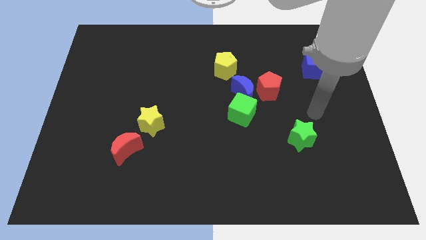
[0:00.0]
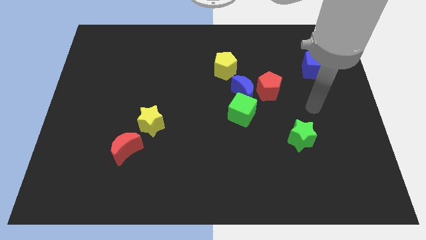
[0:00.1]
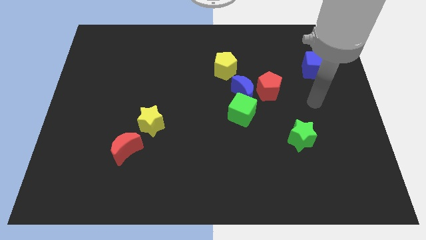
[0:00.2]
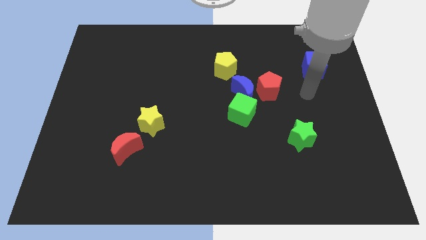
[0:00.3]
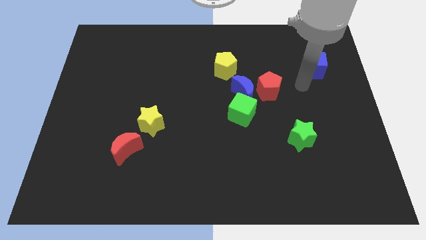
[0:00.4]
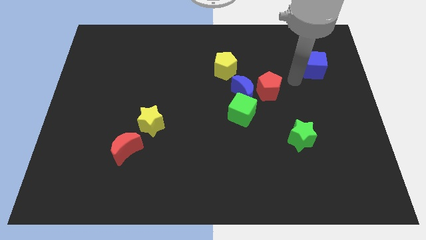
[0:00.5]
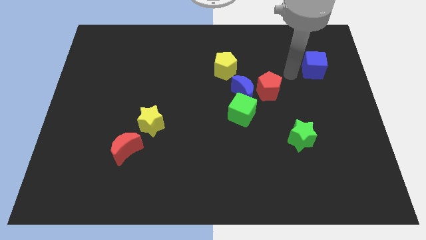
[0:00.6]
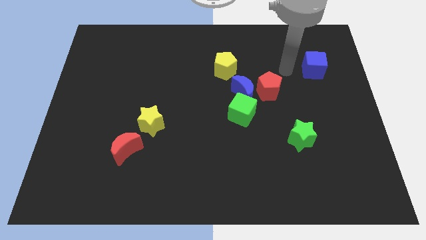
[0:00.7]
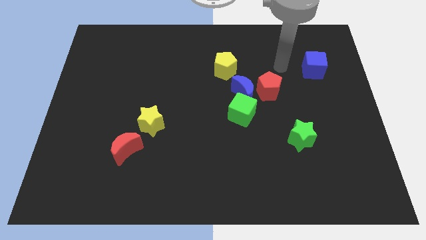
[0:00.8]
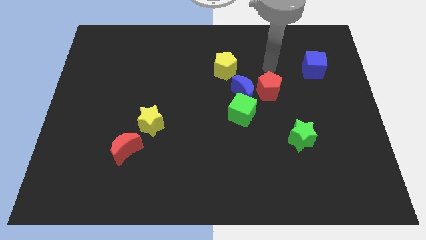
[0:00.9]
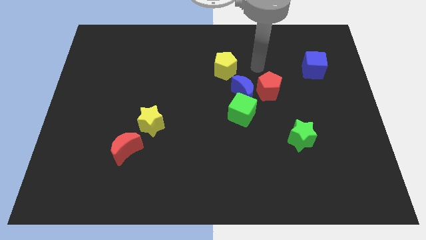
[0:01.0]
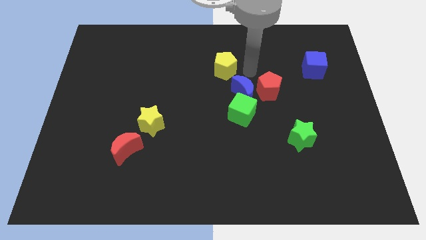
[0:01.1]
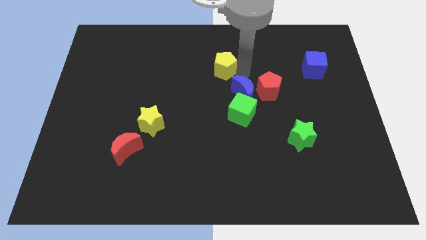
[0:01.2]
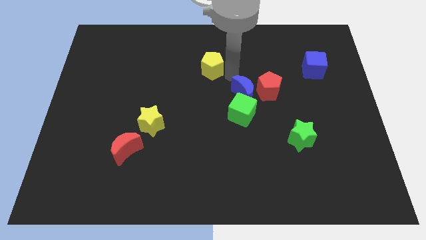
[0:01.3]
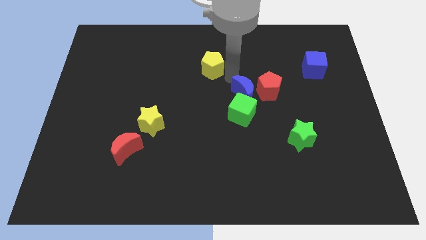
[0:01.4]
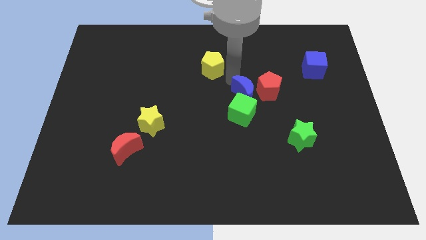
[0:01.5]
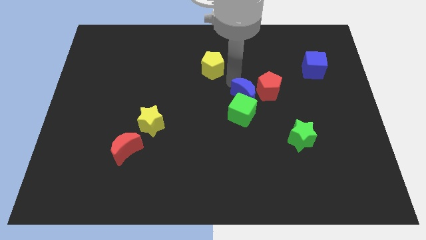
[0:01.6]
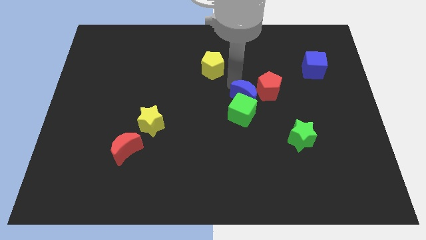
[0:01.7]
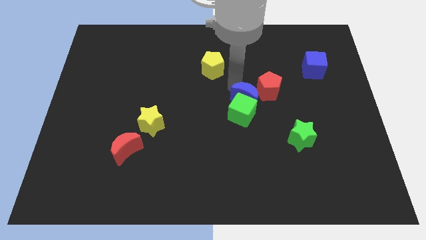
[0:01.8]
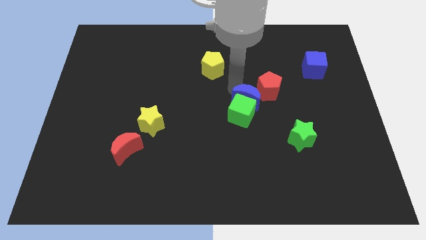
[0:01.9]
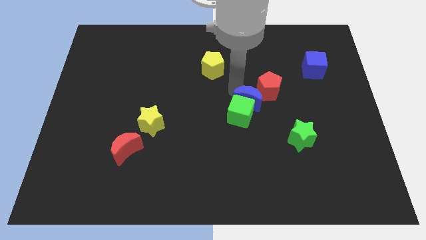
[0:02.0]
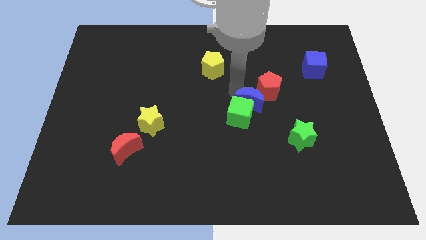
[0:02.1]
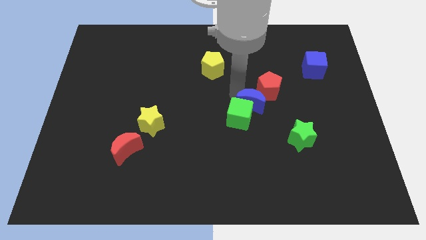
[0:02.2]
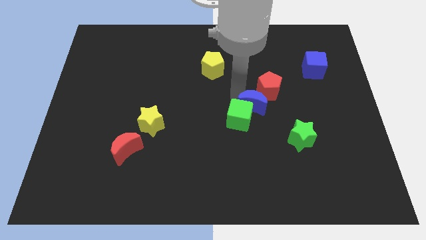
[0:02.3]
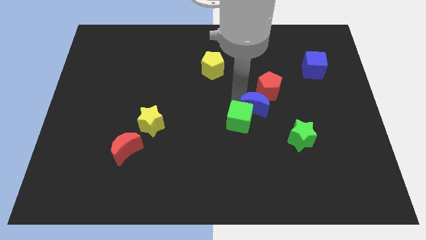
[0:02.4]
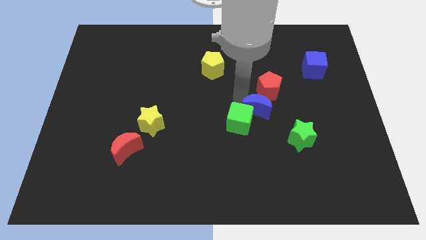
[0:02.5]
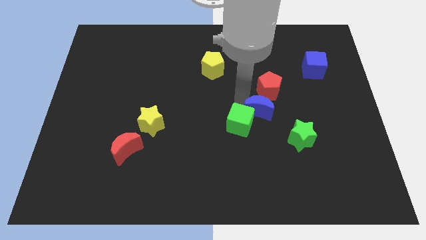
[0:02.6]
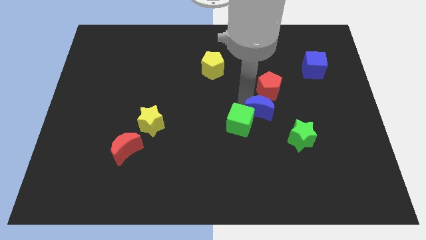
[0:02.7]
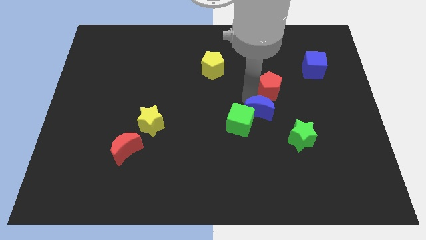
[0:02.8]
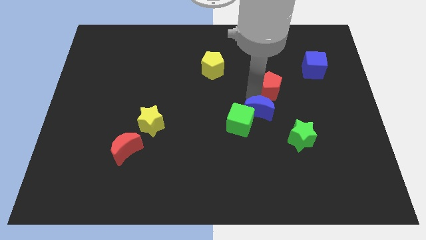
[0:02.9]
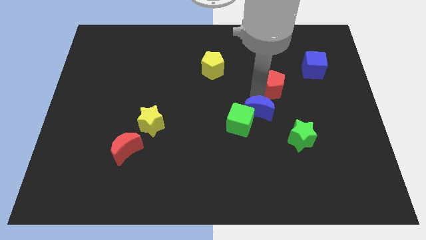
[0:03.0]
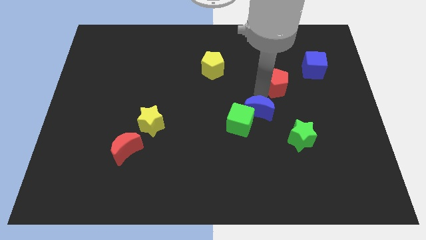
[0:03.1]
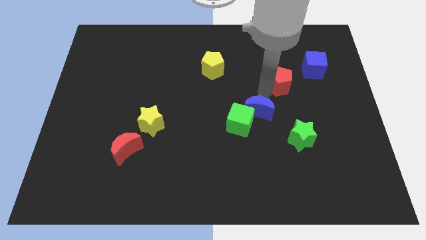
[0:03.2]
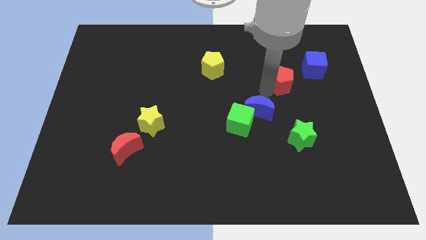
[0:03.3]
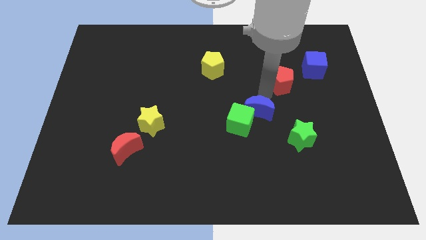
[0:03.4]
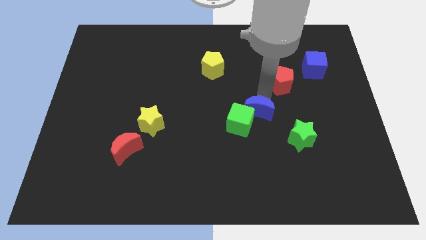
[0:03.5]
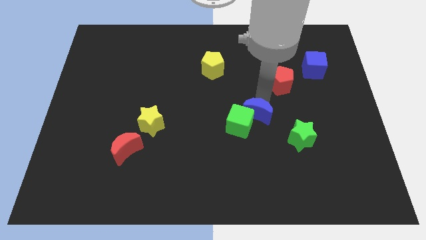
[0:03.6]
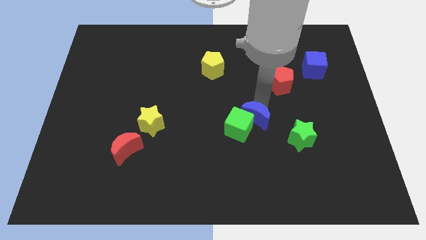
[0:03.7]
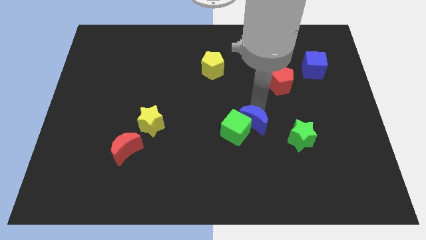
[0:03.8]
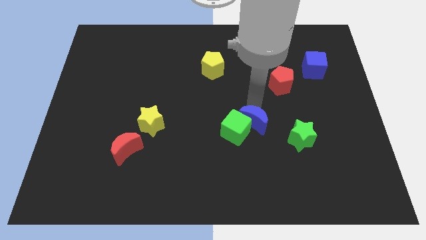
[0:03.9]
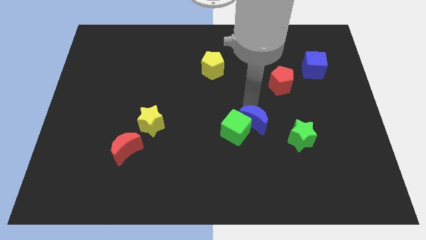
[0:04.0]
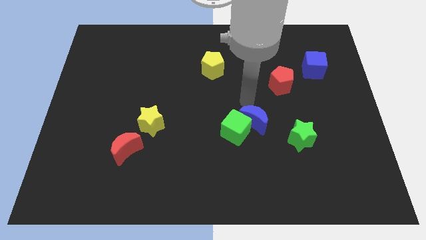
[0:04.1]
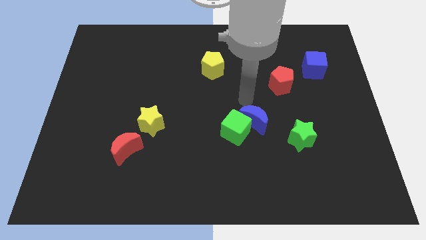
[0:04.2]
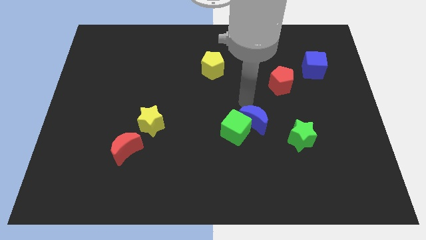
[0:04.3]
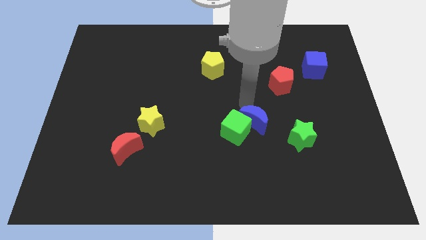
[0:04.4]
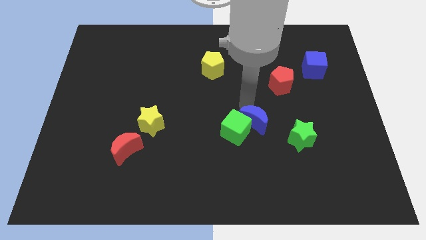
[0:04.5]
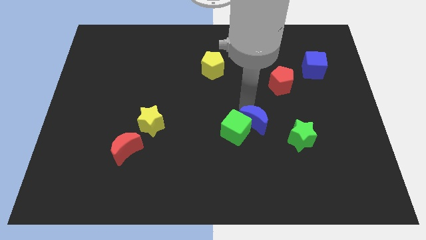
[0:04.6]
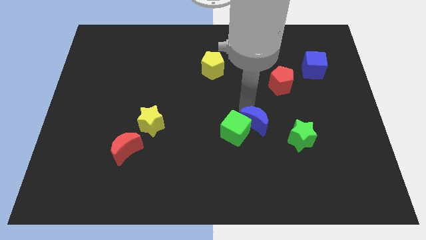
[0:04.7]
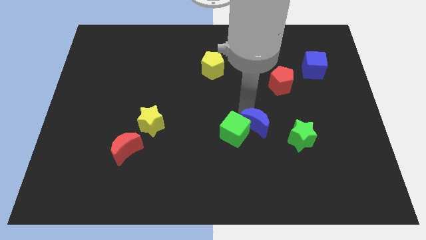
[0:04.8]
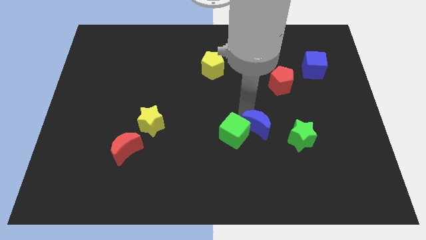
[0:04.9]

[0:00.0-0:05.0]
move the blue moon away from the red pentagon, green cube, and yellow pentagon

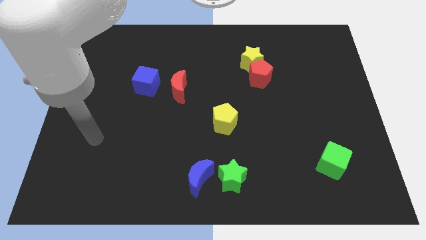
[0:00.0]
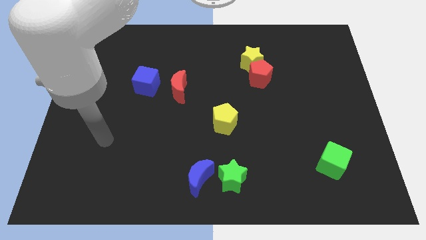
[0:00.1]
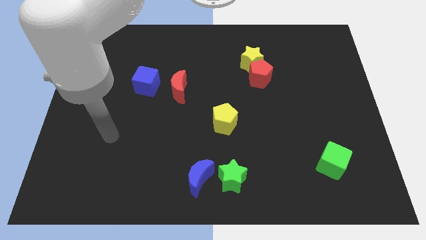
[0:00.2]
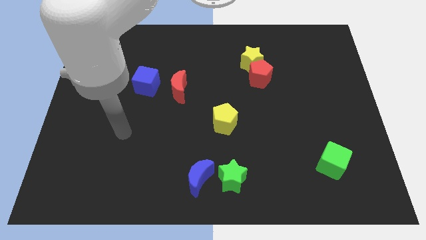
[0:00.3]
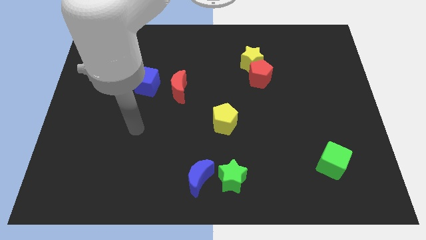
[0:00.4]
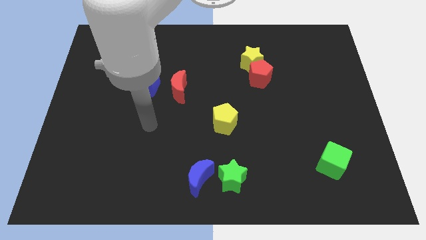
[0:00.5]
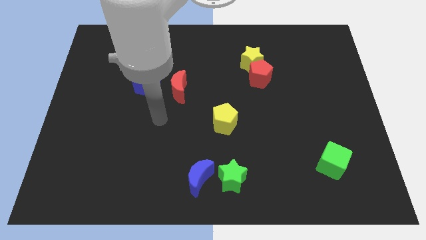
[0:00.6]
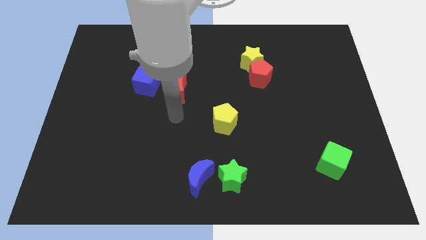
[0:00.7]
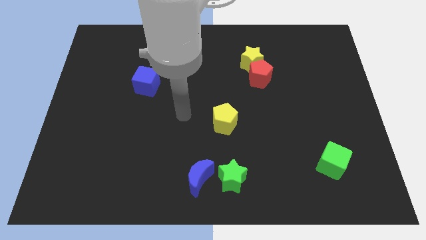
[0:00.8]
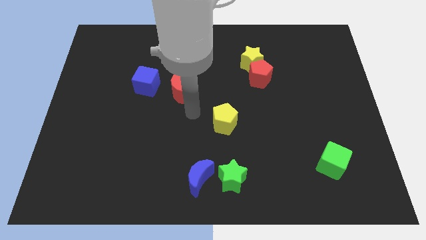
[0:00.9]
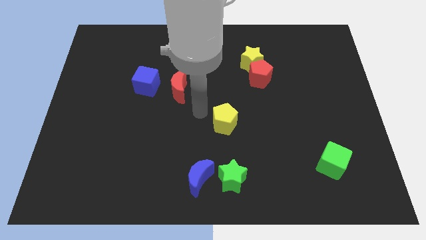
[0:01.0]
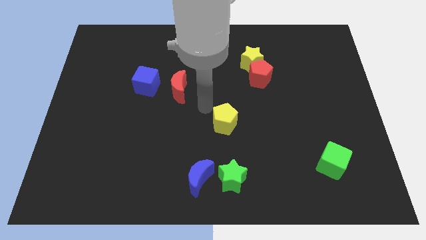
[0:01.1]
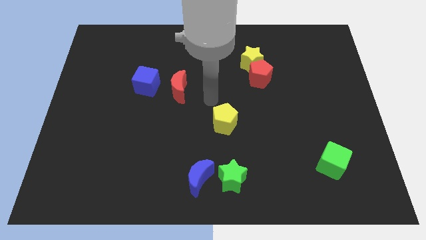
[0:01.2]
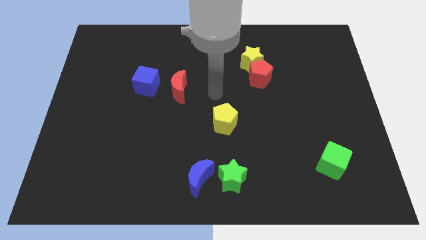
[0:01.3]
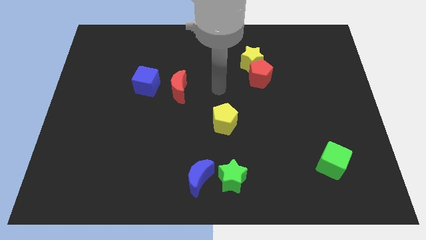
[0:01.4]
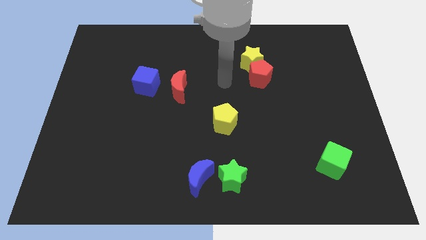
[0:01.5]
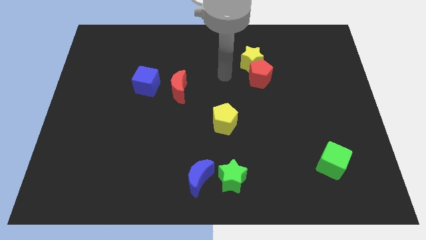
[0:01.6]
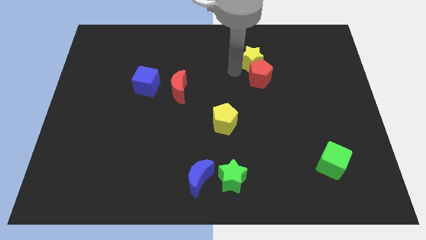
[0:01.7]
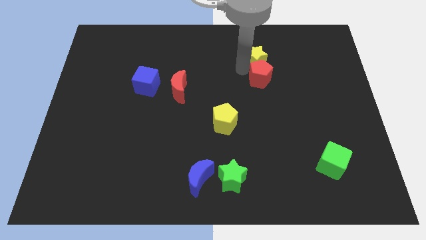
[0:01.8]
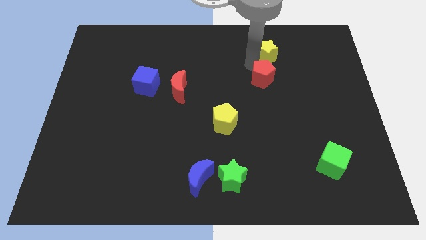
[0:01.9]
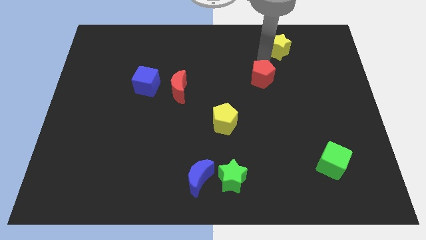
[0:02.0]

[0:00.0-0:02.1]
pull the red pentagon apart from the yellow star

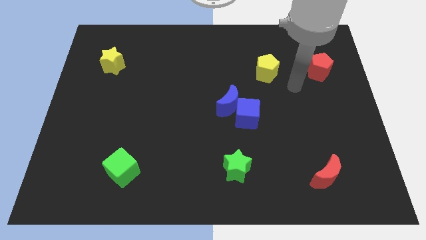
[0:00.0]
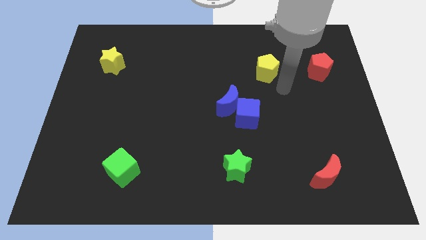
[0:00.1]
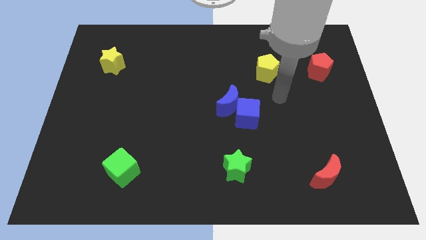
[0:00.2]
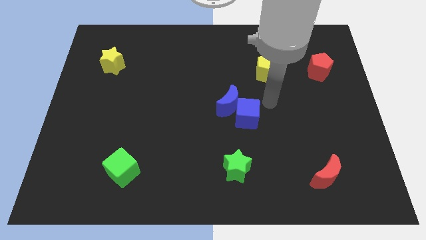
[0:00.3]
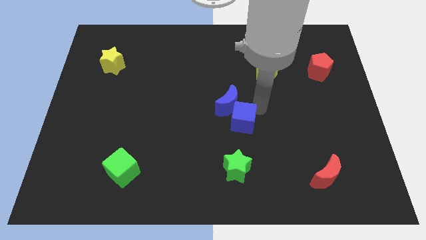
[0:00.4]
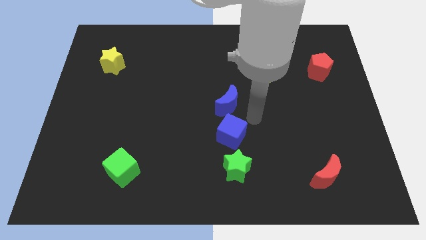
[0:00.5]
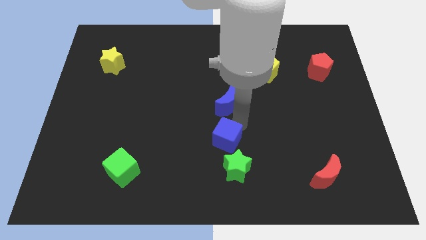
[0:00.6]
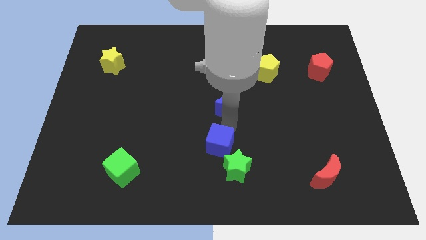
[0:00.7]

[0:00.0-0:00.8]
move the blue moon away from the blue cube

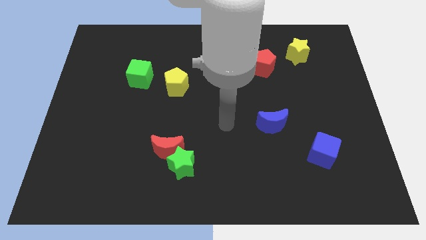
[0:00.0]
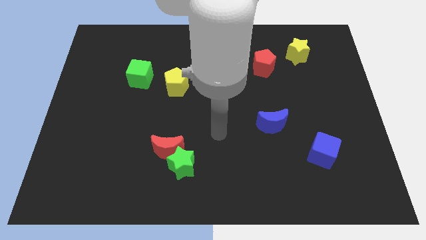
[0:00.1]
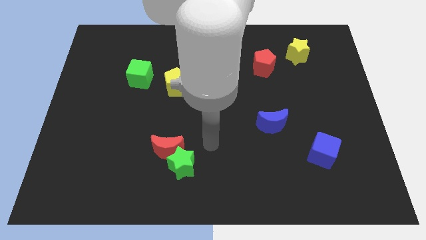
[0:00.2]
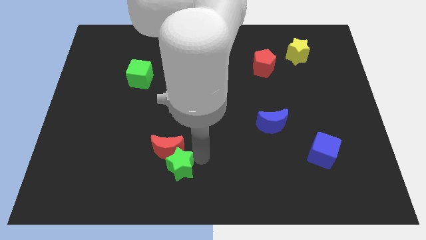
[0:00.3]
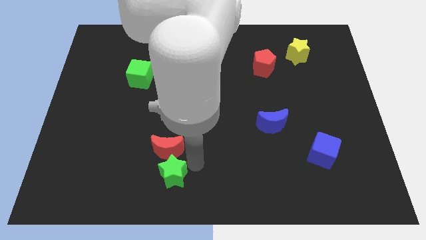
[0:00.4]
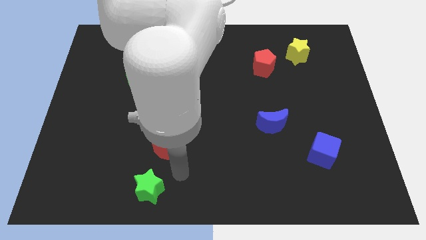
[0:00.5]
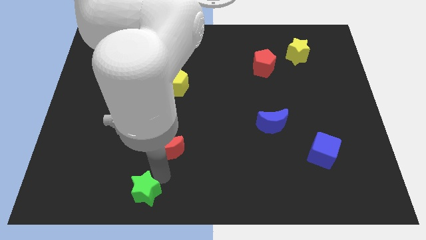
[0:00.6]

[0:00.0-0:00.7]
pull the red moon apart from the green star

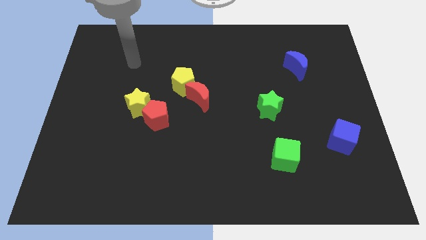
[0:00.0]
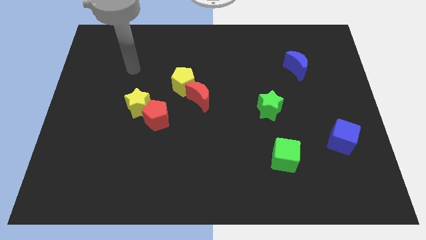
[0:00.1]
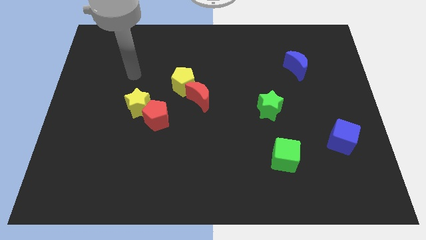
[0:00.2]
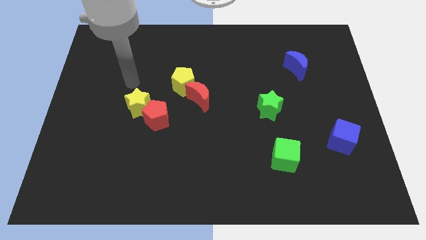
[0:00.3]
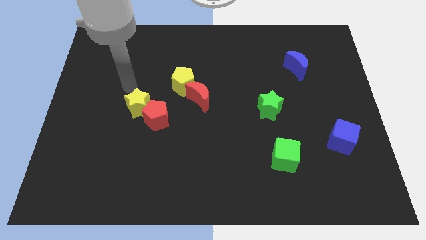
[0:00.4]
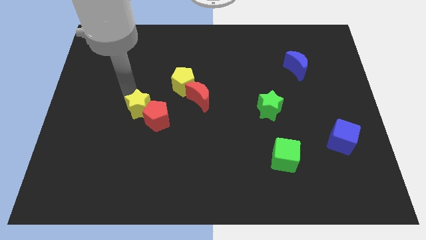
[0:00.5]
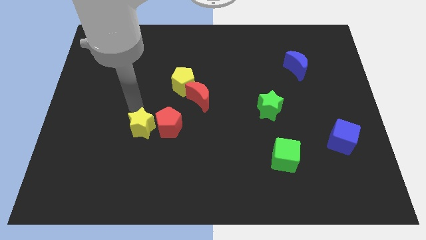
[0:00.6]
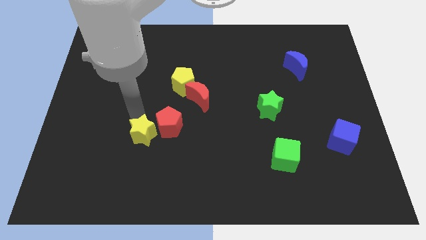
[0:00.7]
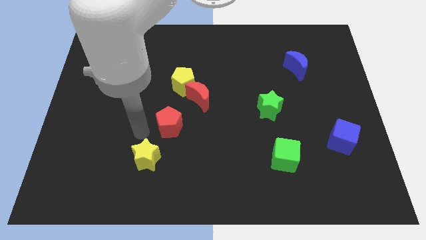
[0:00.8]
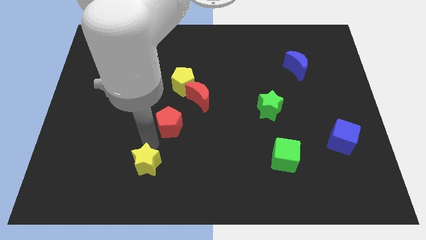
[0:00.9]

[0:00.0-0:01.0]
separate the red pentagon from the yellow star
